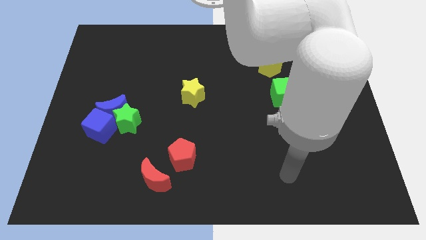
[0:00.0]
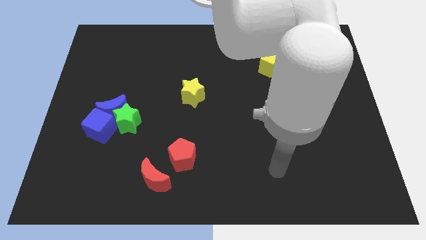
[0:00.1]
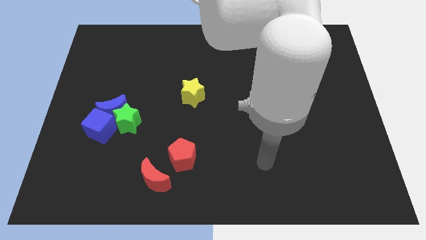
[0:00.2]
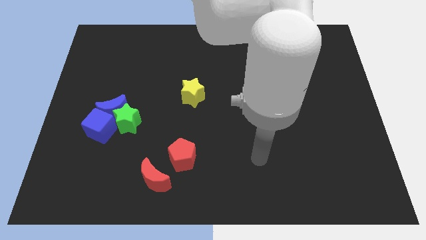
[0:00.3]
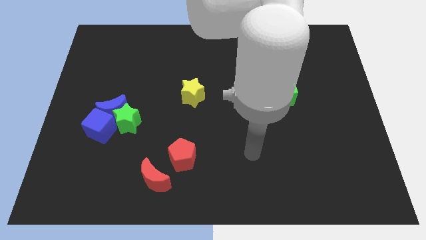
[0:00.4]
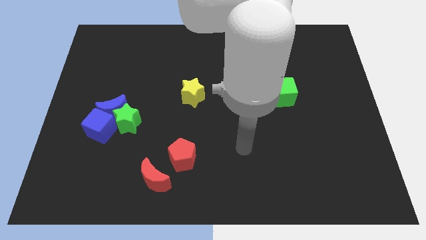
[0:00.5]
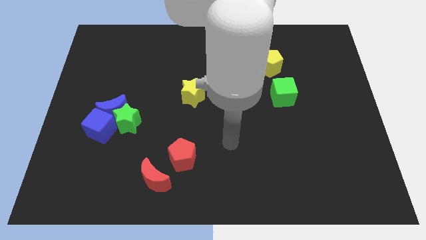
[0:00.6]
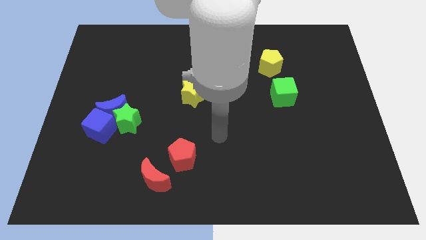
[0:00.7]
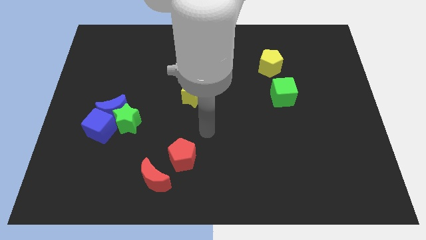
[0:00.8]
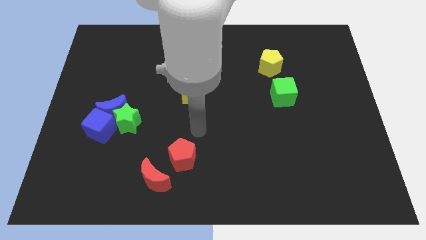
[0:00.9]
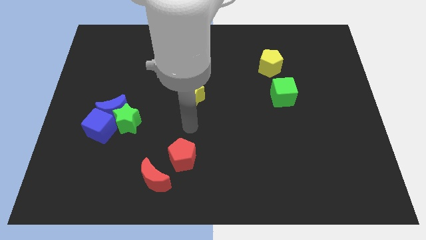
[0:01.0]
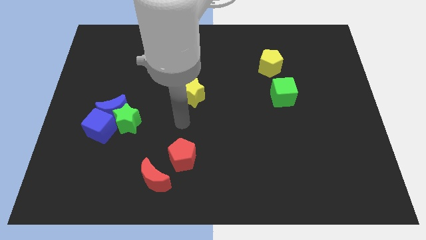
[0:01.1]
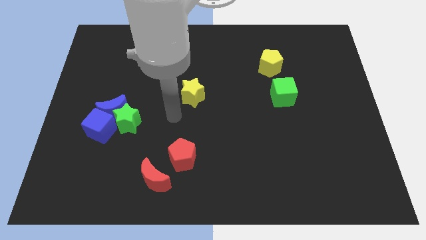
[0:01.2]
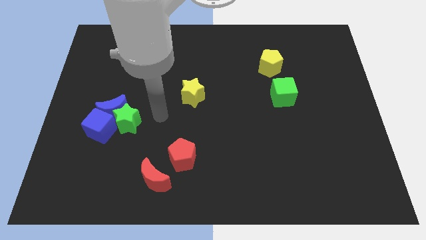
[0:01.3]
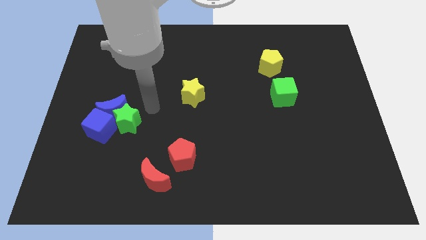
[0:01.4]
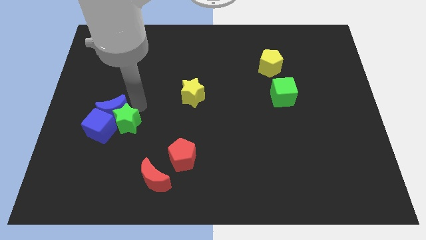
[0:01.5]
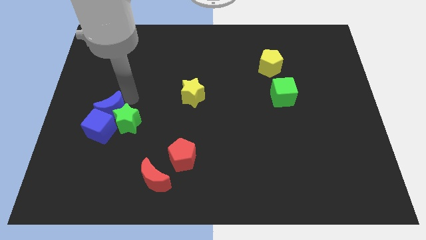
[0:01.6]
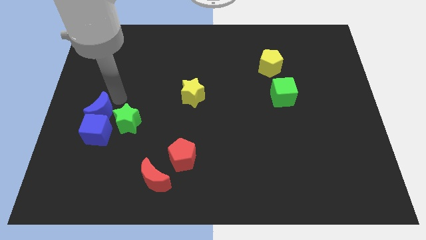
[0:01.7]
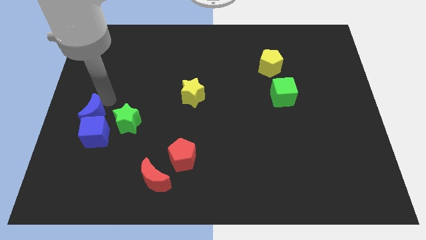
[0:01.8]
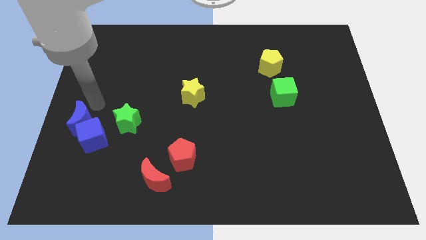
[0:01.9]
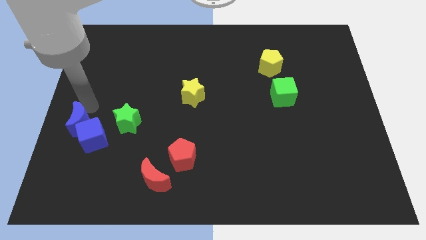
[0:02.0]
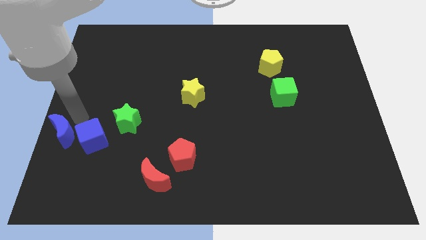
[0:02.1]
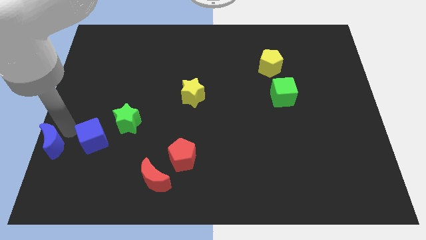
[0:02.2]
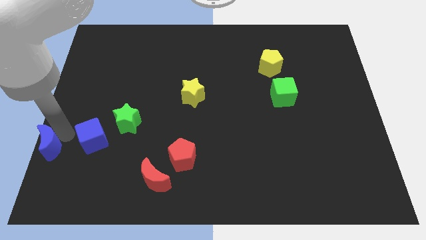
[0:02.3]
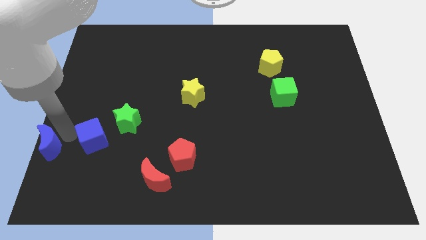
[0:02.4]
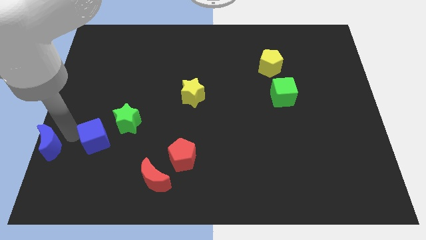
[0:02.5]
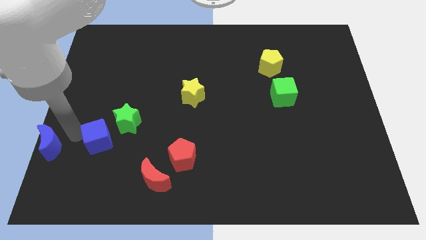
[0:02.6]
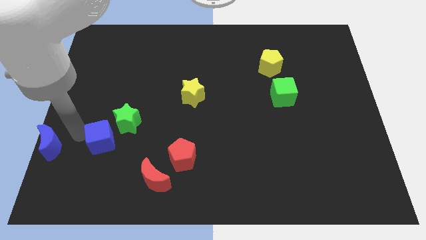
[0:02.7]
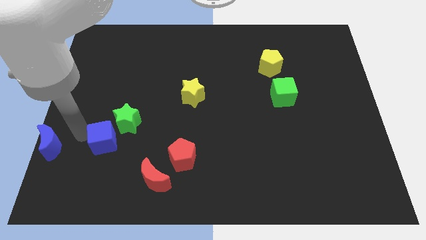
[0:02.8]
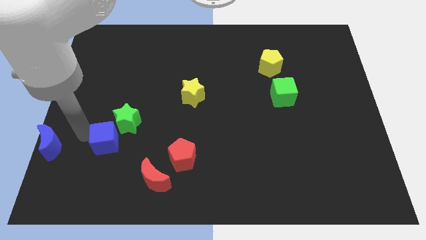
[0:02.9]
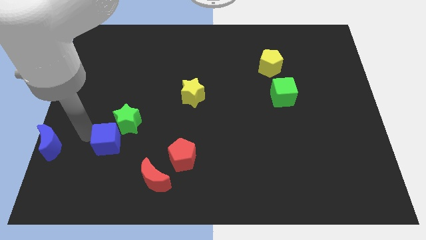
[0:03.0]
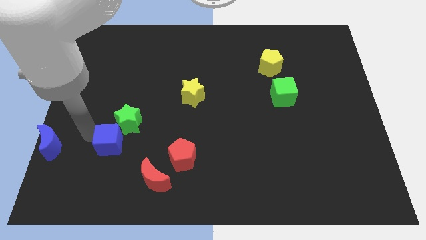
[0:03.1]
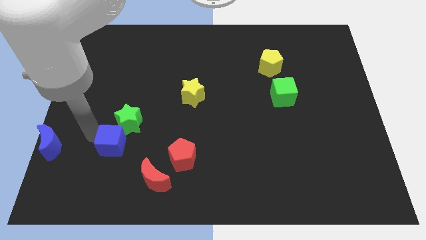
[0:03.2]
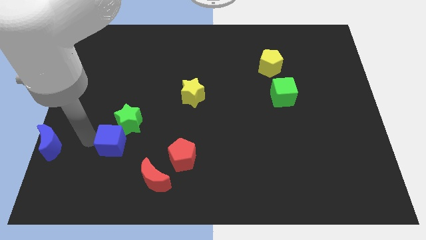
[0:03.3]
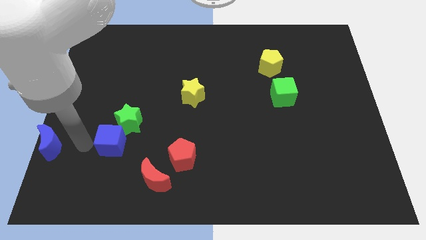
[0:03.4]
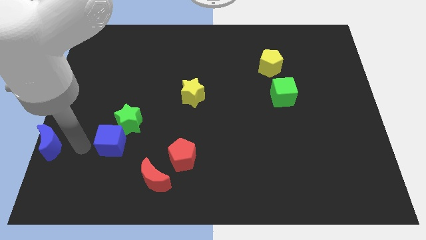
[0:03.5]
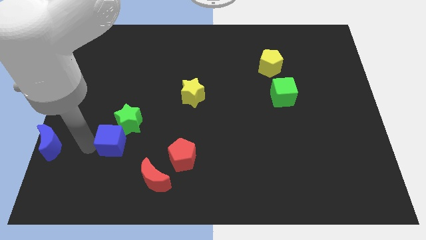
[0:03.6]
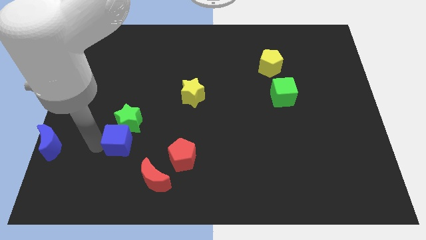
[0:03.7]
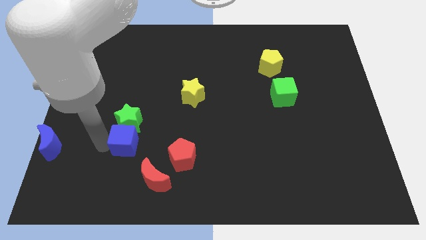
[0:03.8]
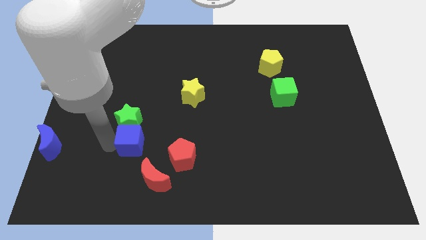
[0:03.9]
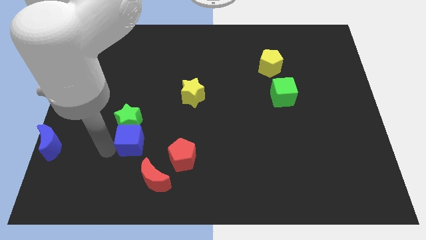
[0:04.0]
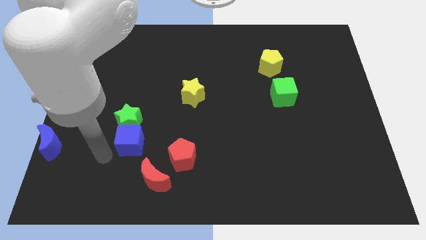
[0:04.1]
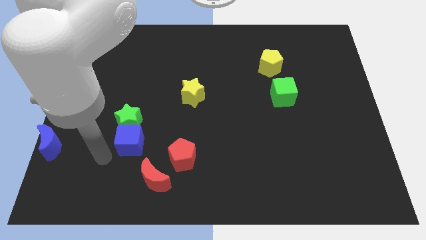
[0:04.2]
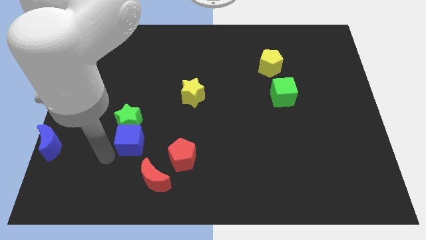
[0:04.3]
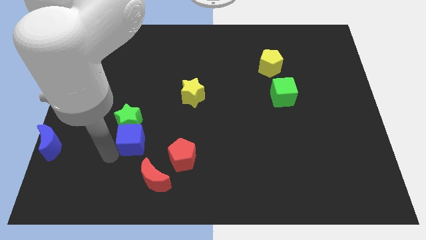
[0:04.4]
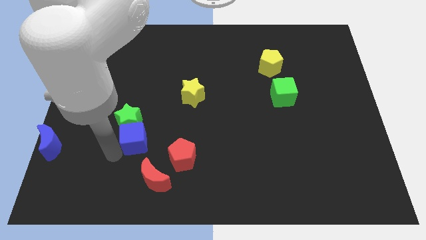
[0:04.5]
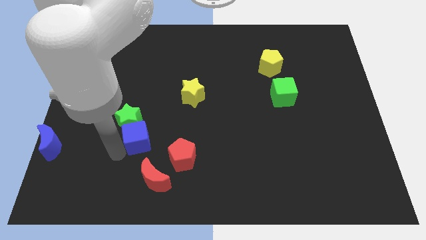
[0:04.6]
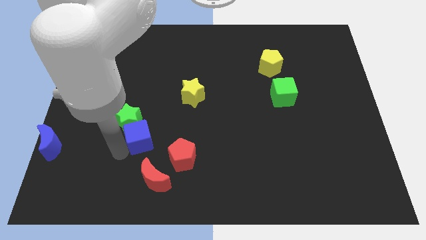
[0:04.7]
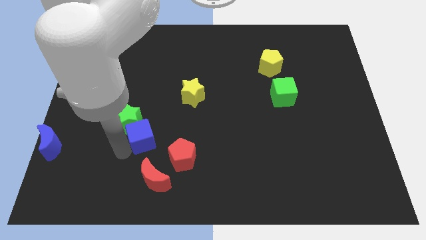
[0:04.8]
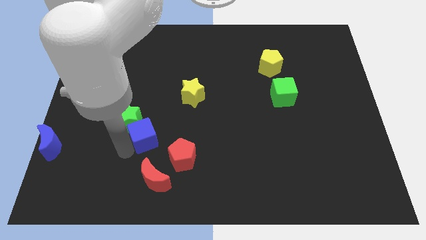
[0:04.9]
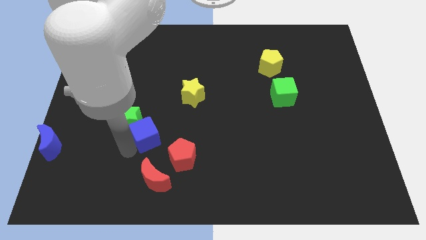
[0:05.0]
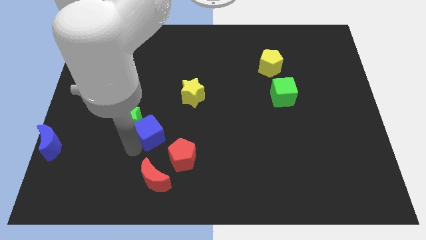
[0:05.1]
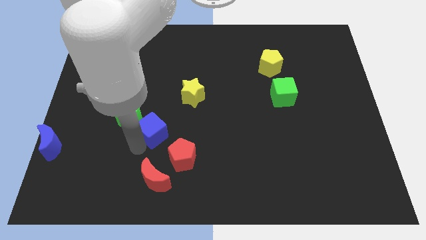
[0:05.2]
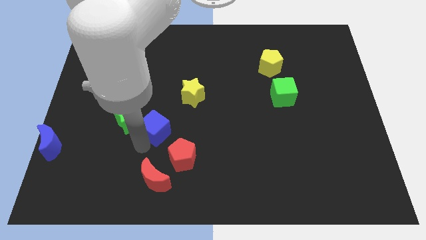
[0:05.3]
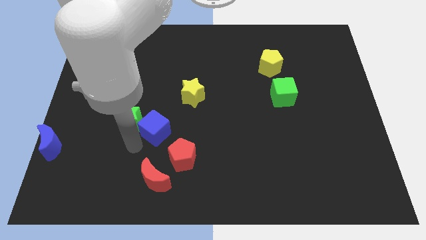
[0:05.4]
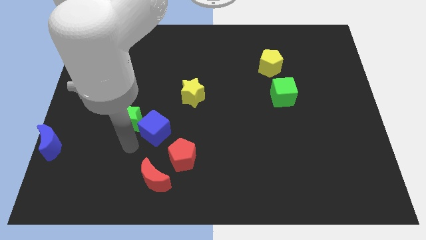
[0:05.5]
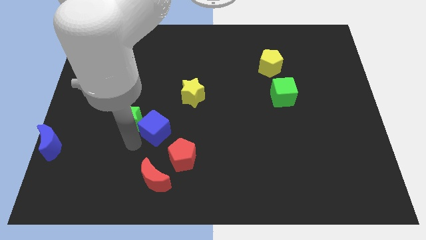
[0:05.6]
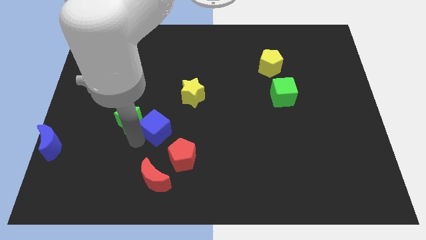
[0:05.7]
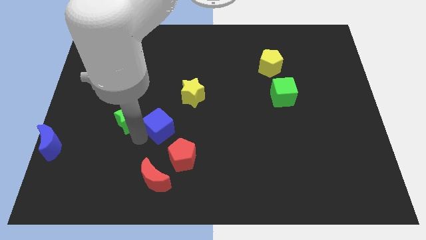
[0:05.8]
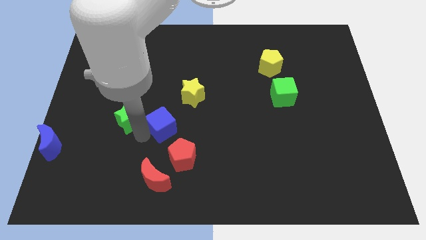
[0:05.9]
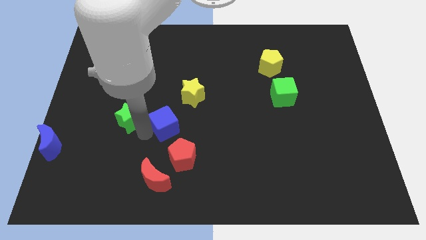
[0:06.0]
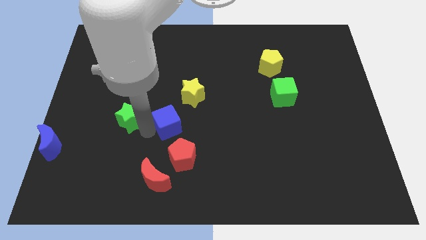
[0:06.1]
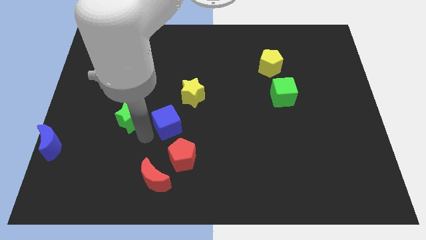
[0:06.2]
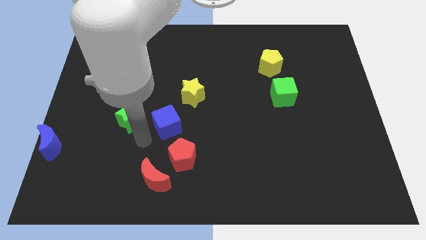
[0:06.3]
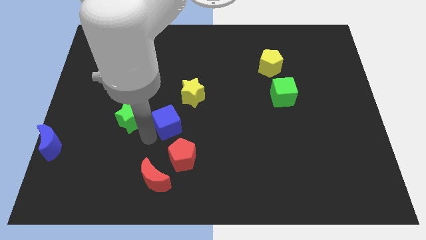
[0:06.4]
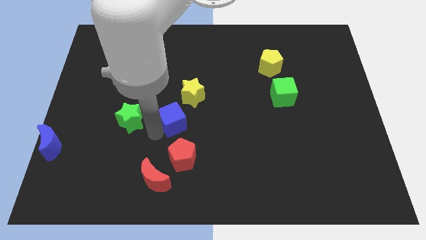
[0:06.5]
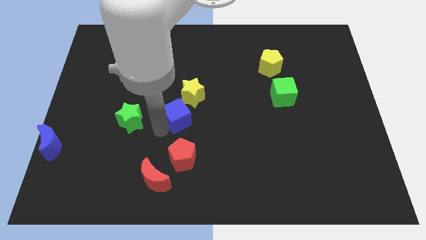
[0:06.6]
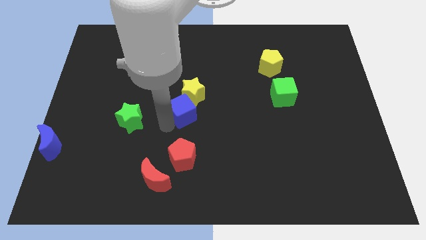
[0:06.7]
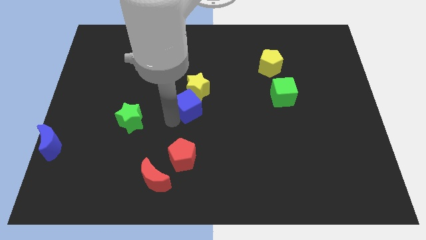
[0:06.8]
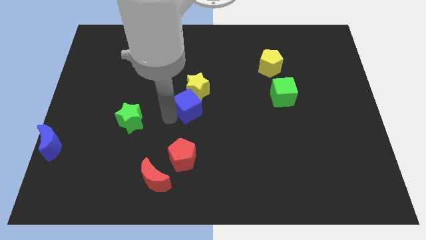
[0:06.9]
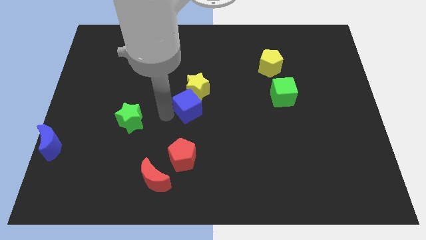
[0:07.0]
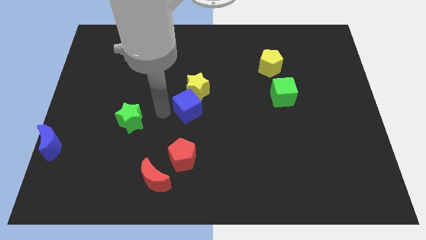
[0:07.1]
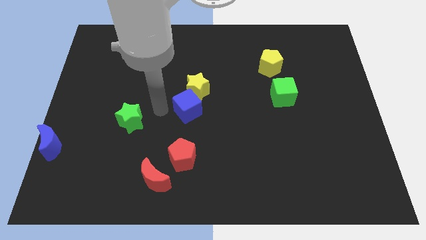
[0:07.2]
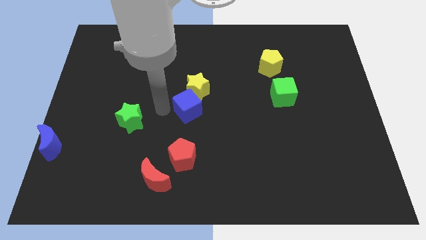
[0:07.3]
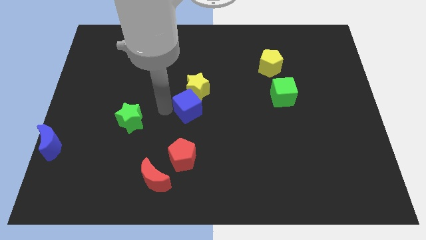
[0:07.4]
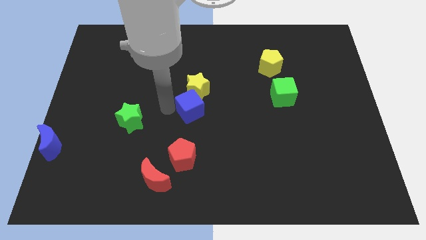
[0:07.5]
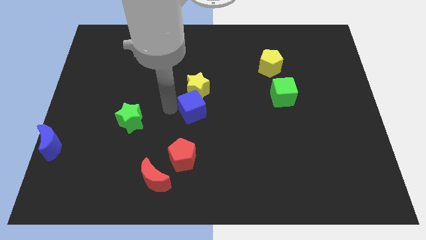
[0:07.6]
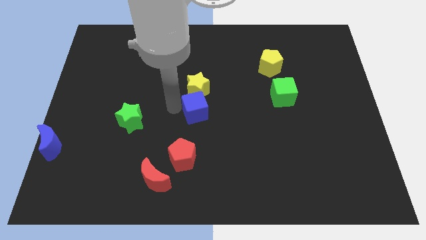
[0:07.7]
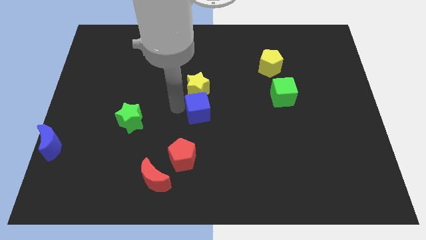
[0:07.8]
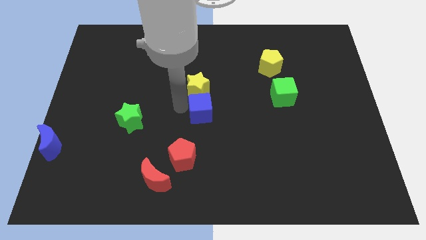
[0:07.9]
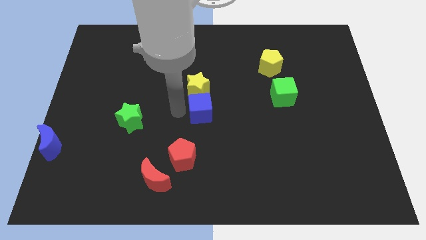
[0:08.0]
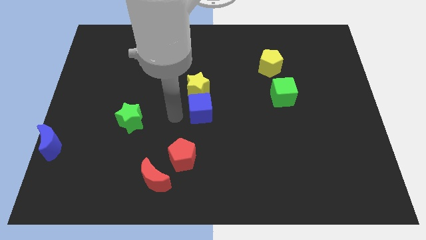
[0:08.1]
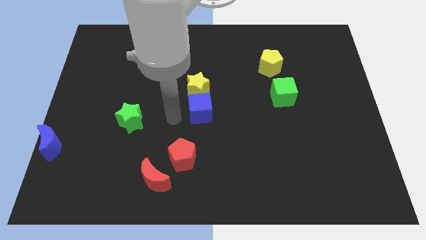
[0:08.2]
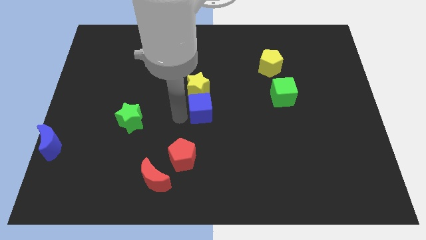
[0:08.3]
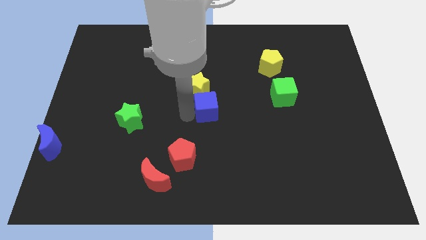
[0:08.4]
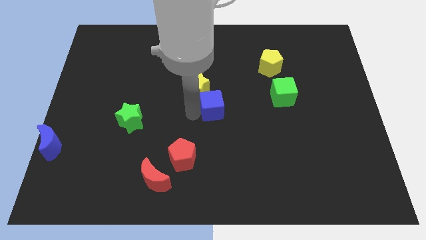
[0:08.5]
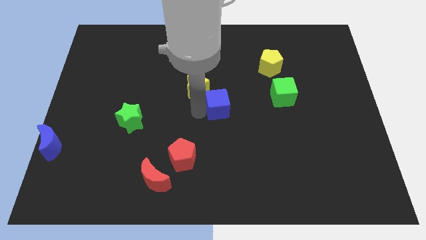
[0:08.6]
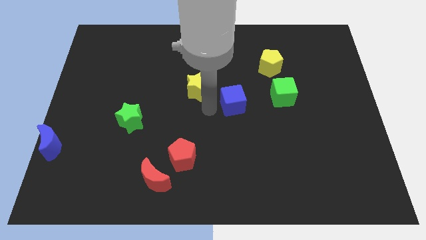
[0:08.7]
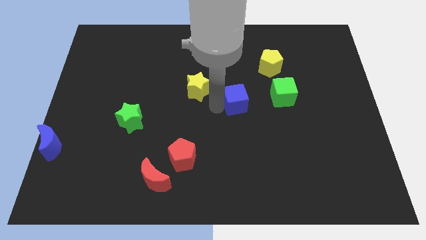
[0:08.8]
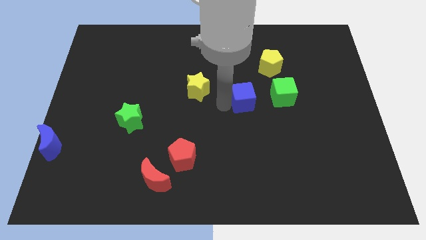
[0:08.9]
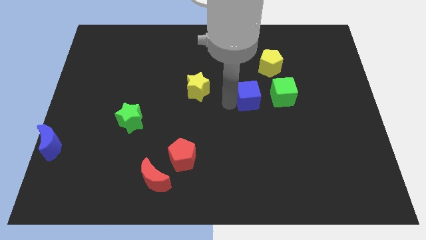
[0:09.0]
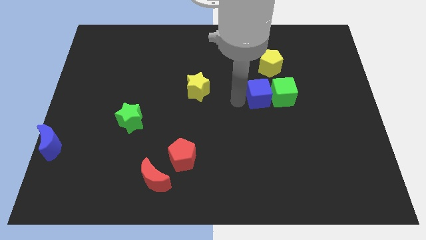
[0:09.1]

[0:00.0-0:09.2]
slide the blue cube next to the green cube
